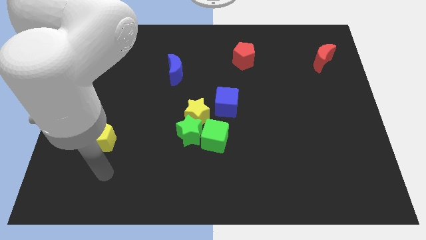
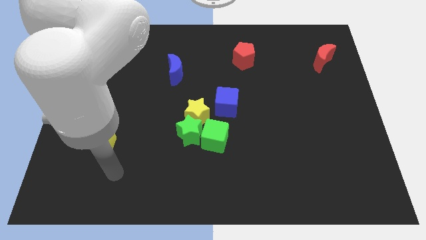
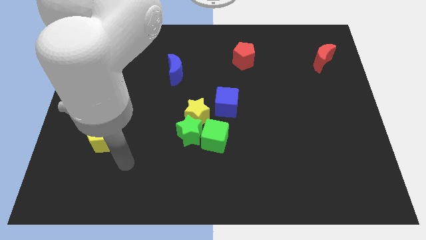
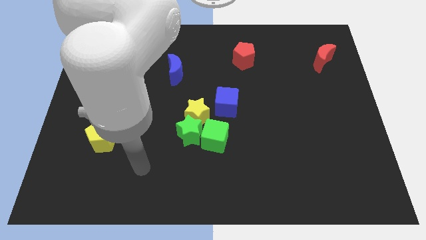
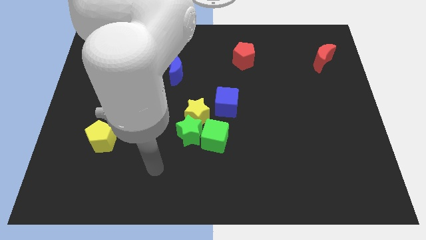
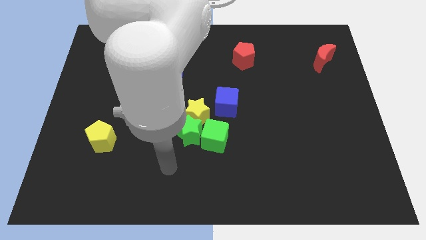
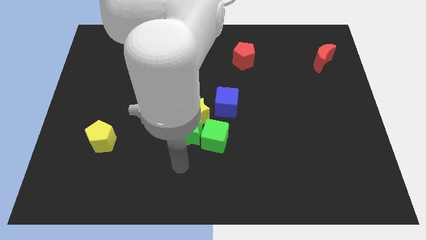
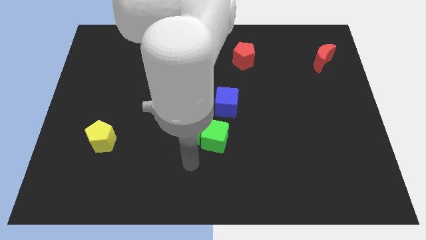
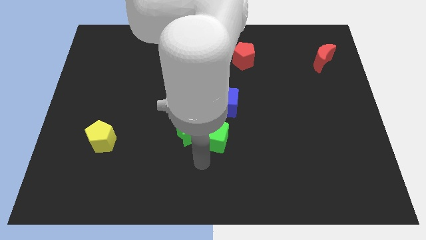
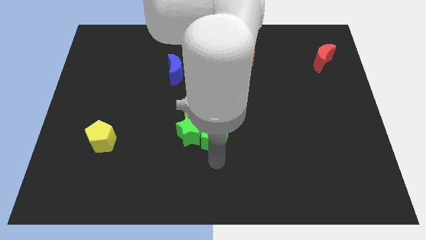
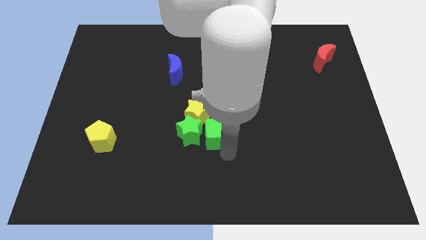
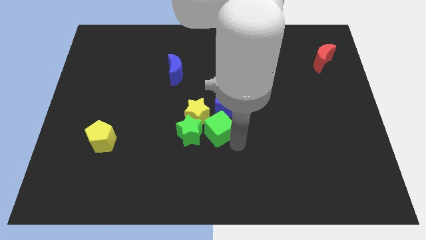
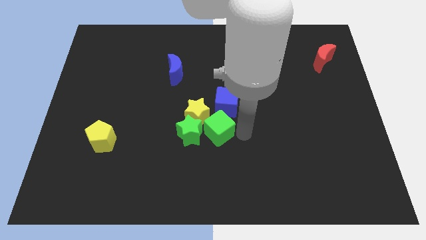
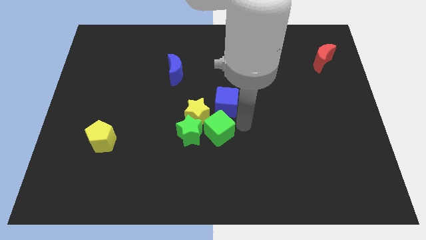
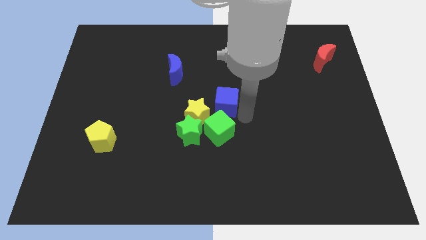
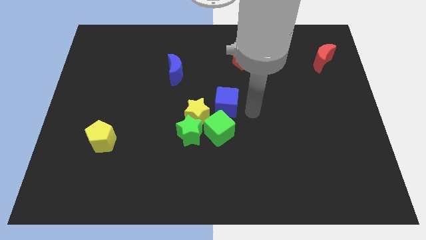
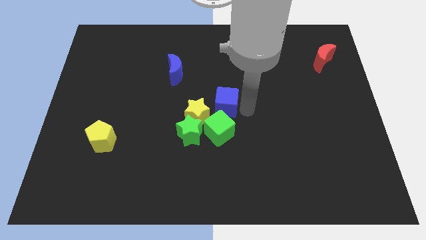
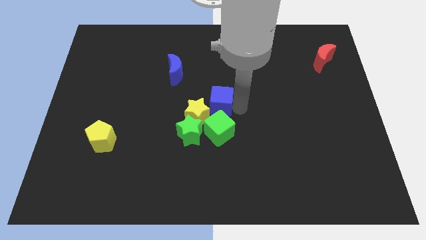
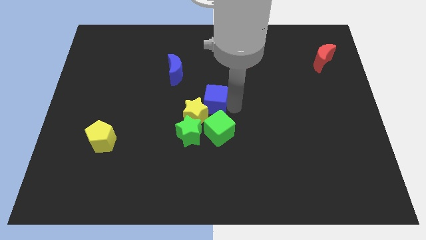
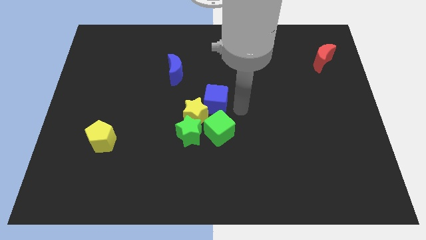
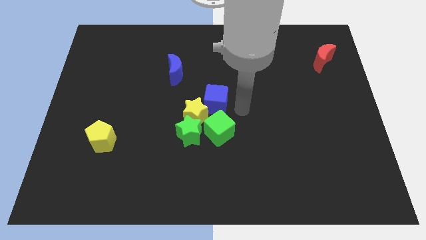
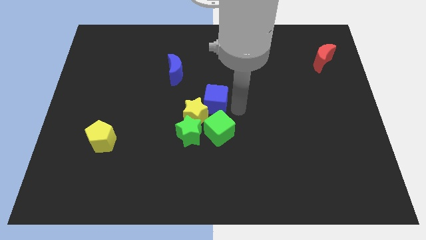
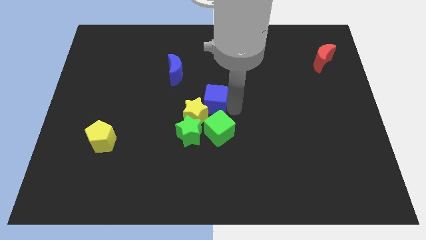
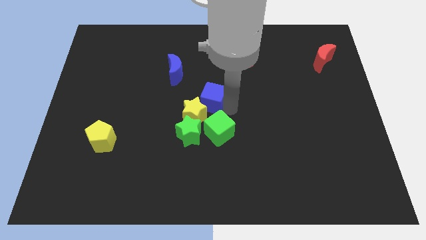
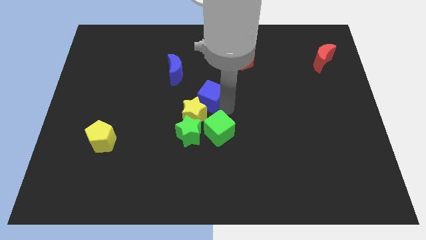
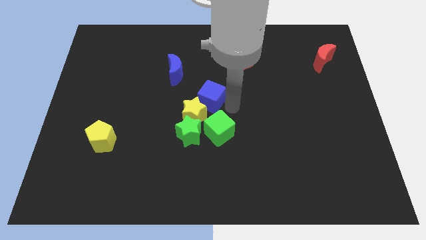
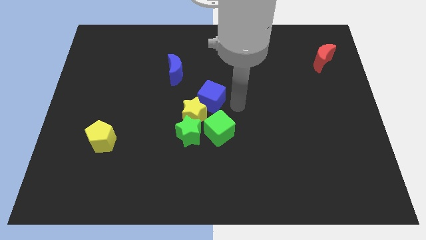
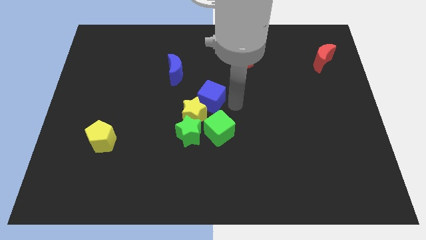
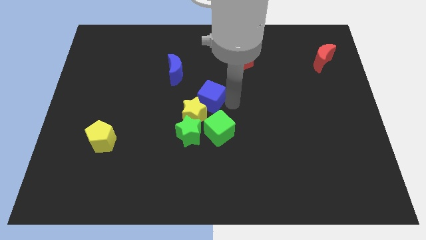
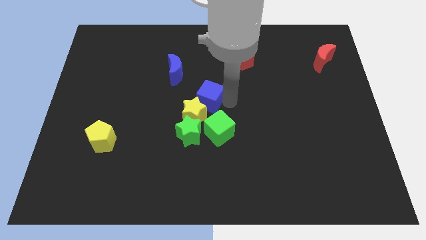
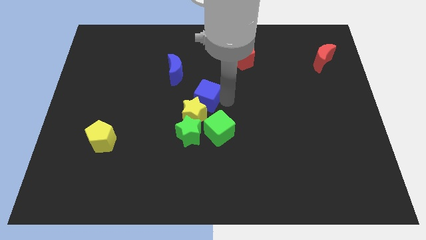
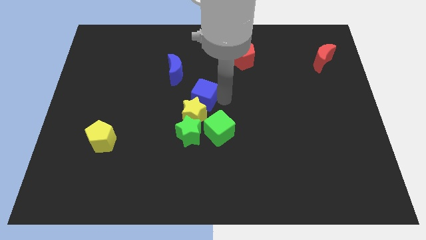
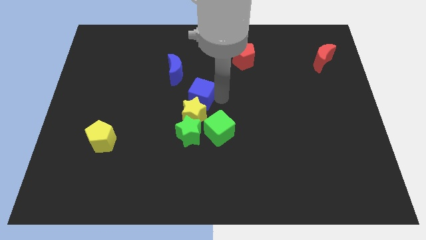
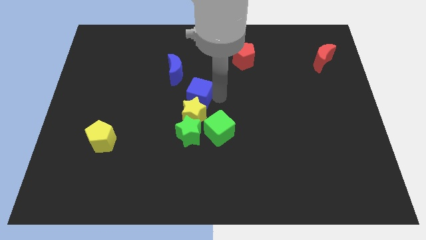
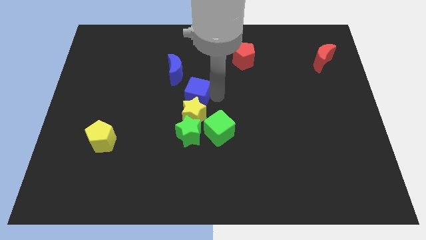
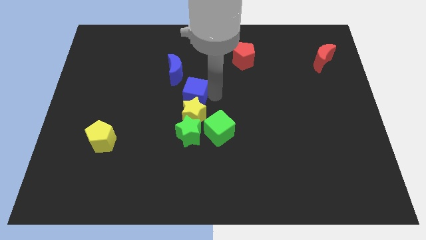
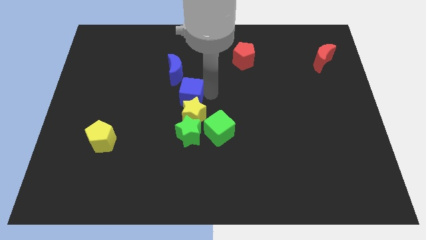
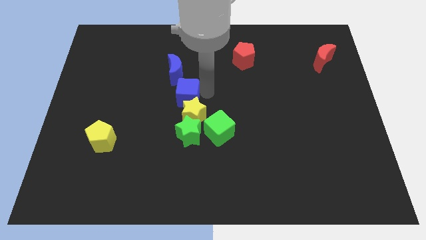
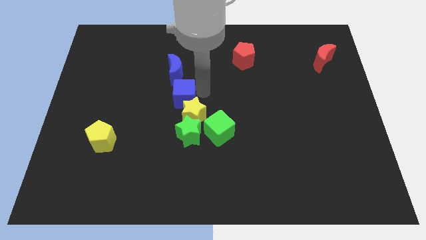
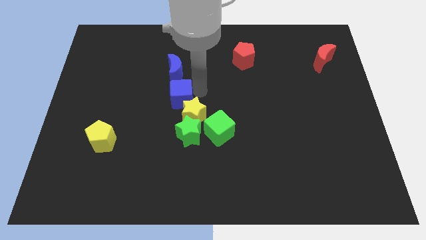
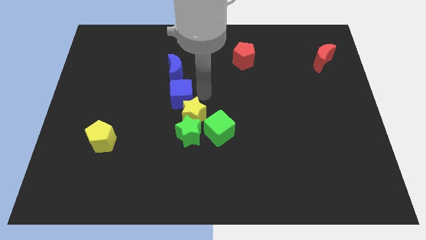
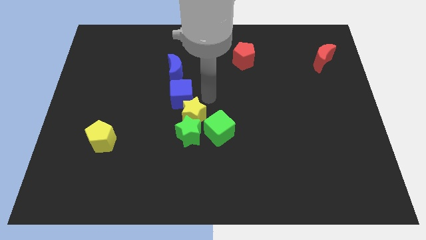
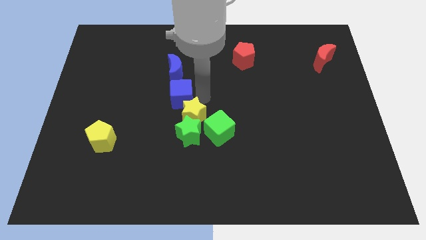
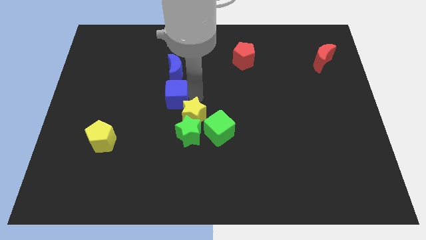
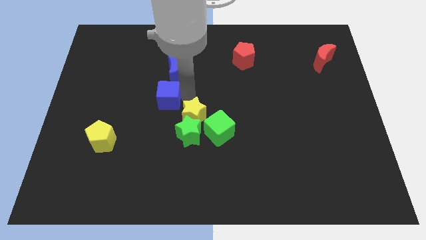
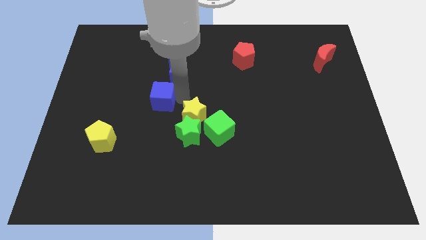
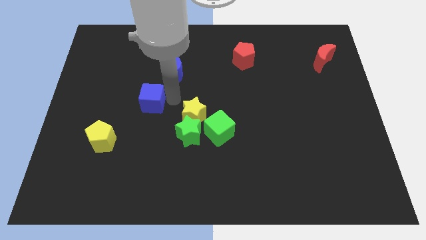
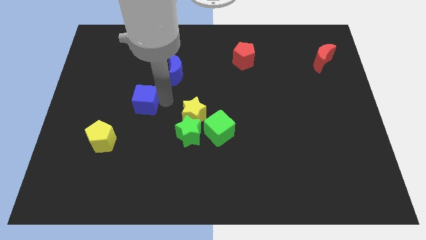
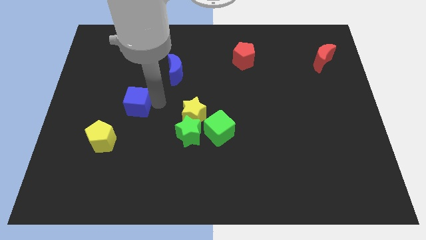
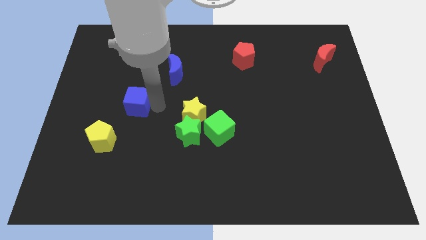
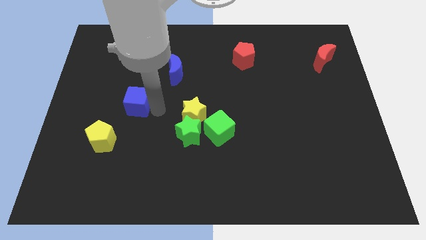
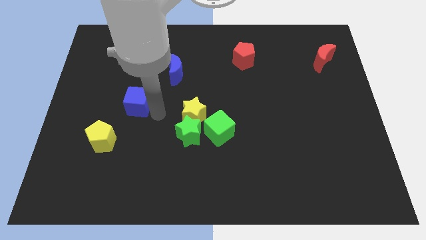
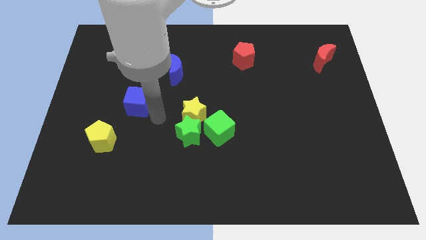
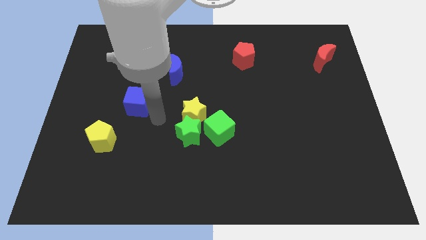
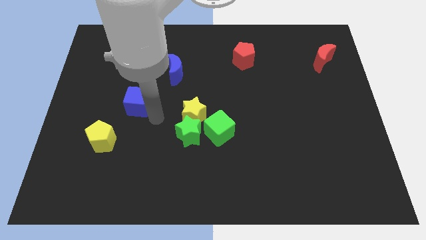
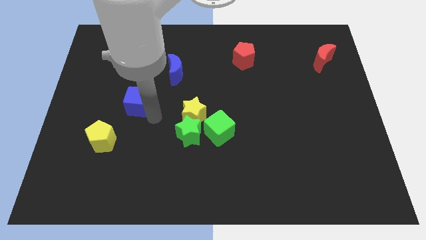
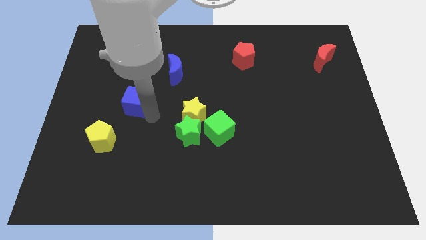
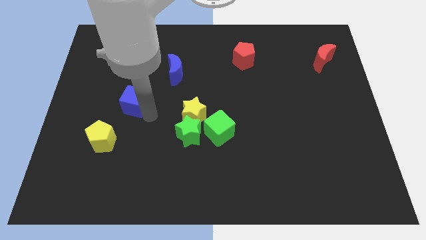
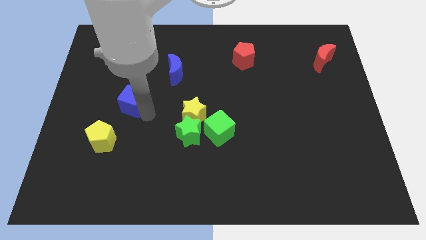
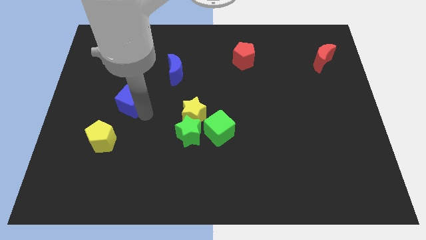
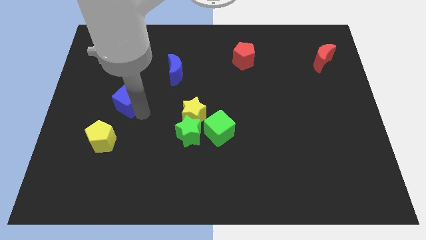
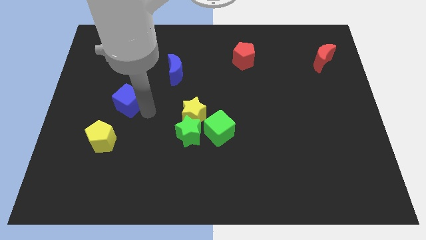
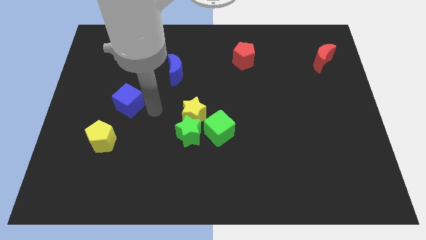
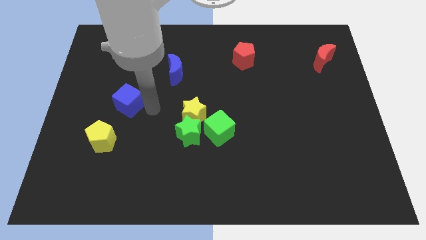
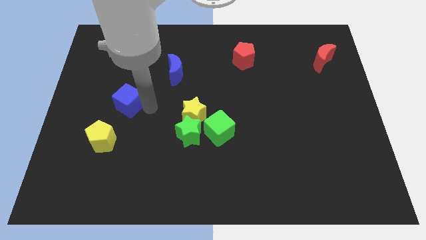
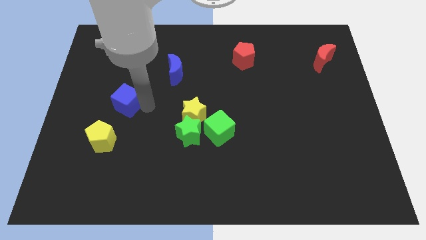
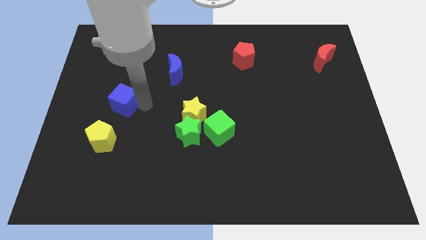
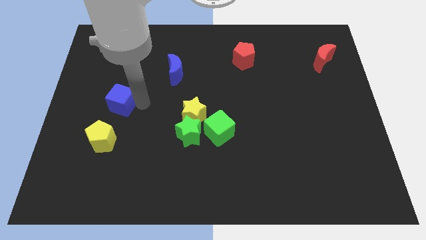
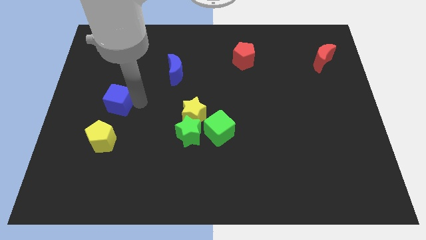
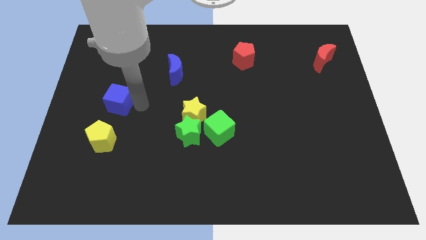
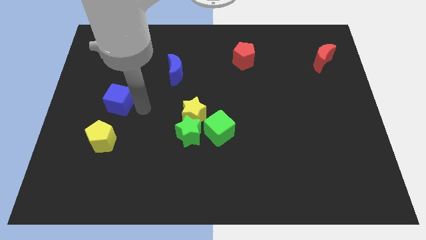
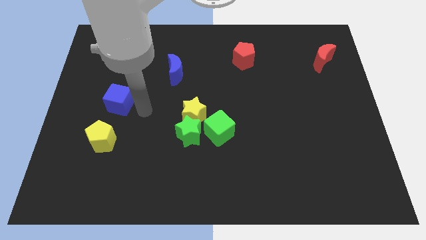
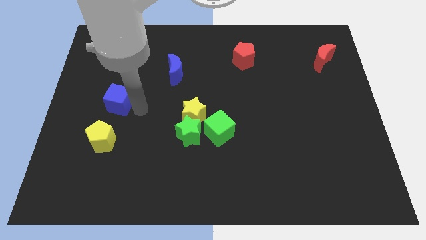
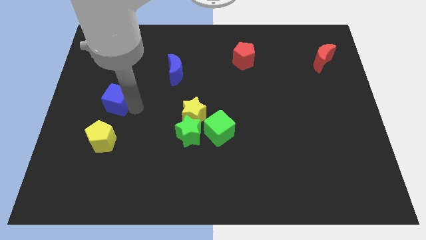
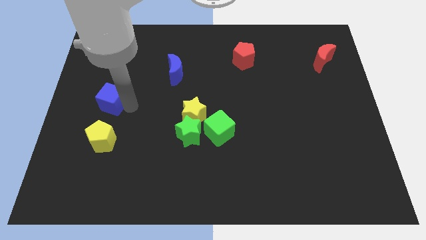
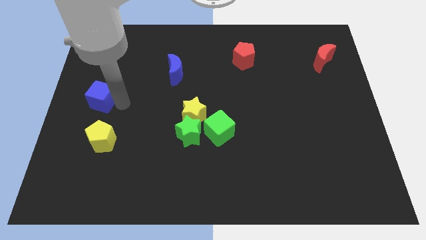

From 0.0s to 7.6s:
put the blue cube to the center left
